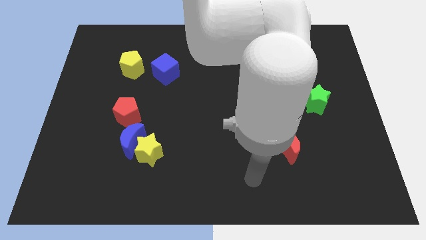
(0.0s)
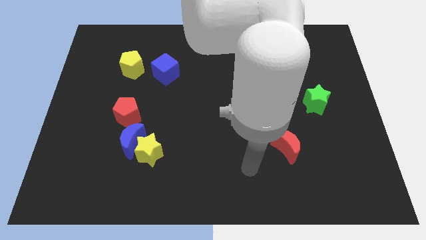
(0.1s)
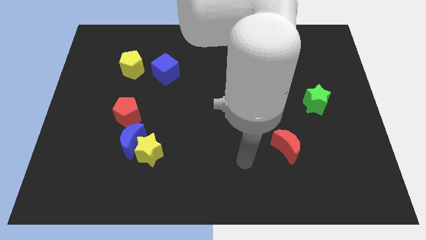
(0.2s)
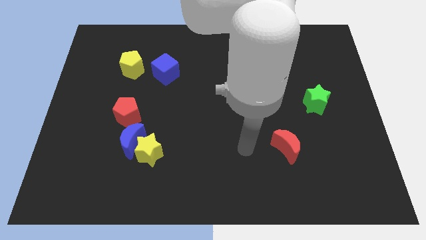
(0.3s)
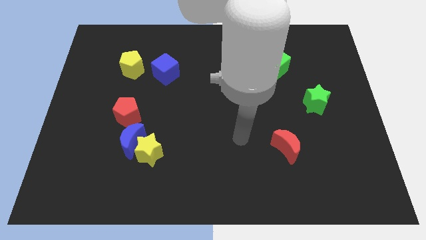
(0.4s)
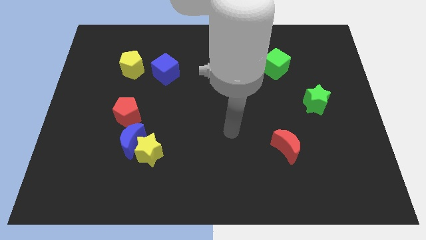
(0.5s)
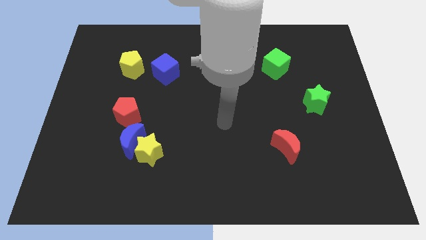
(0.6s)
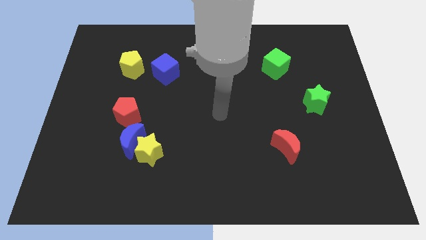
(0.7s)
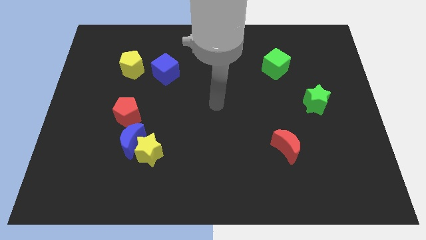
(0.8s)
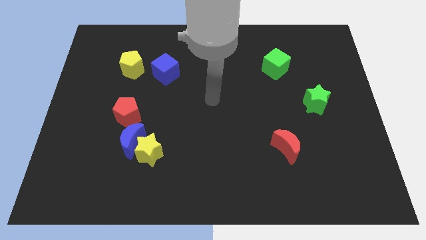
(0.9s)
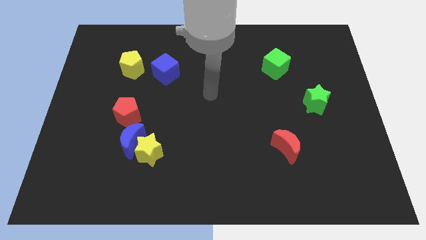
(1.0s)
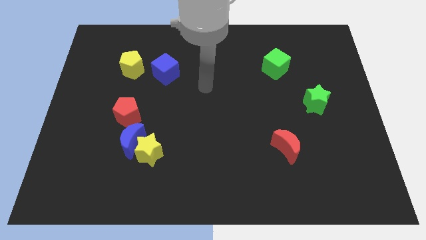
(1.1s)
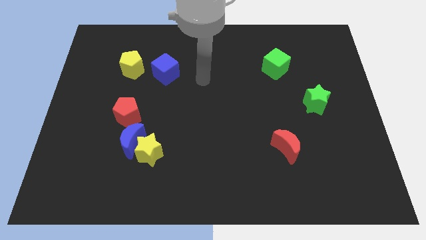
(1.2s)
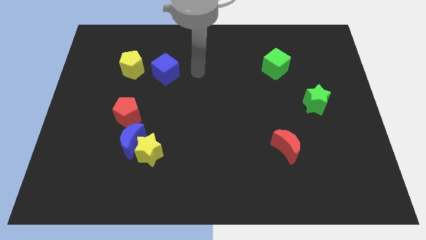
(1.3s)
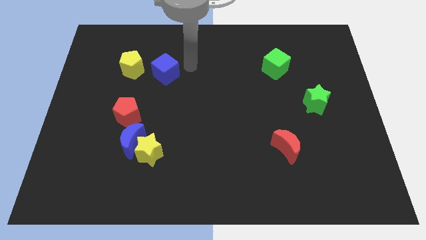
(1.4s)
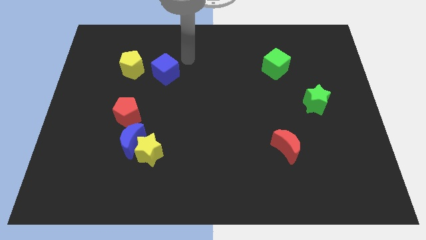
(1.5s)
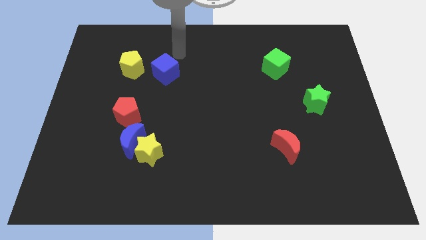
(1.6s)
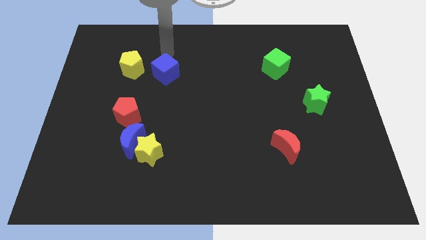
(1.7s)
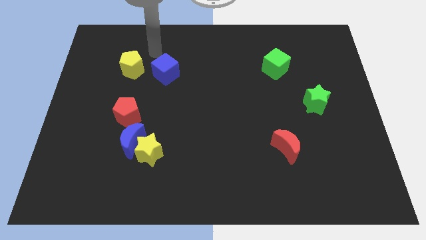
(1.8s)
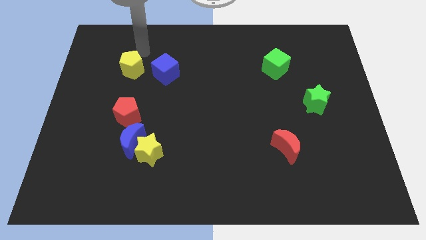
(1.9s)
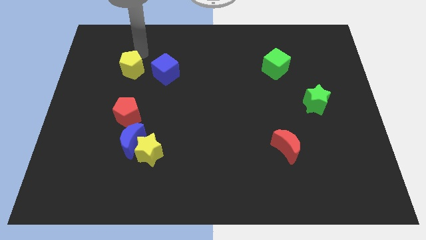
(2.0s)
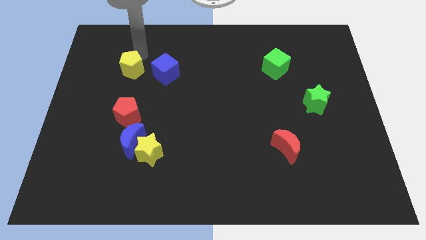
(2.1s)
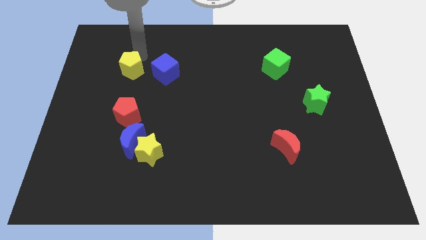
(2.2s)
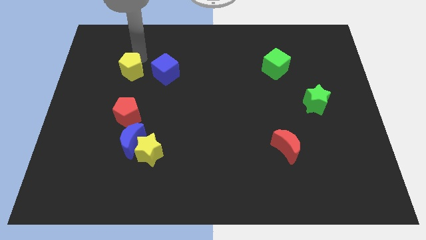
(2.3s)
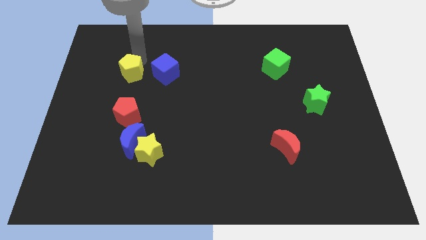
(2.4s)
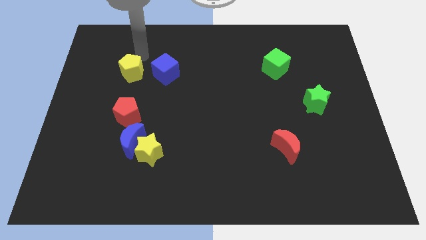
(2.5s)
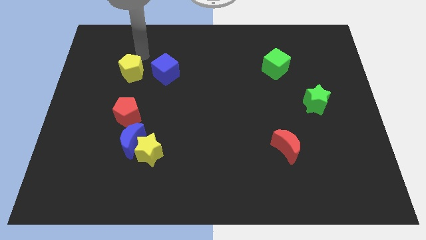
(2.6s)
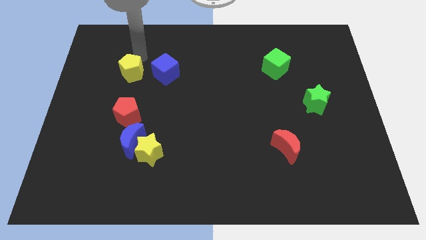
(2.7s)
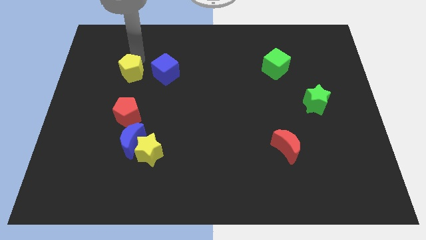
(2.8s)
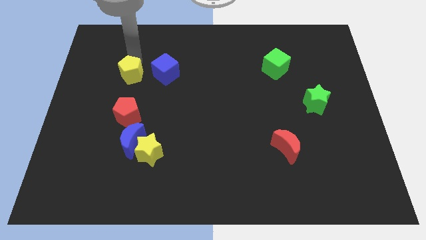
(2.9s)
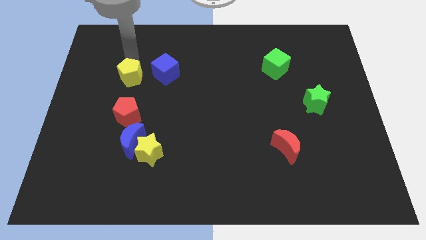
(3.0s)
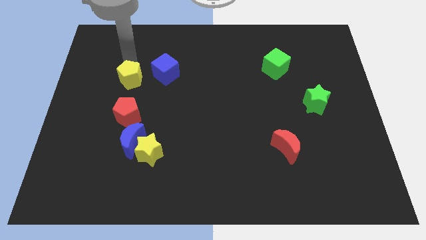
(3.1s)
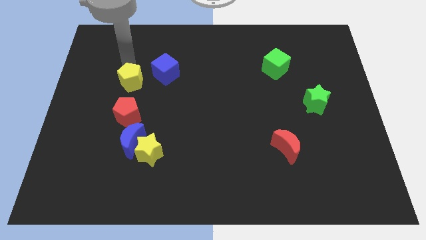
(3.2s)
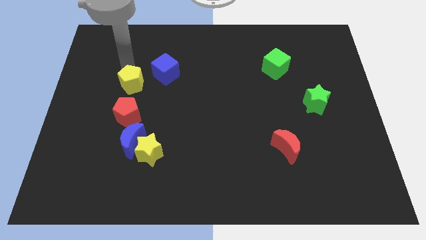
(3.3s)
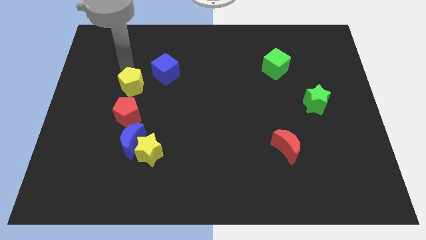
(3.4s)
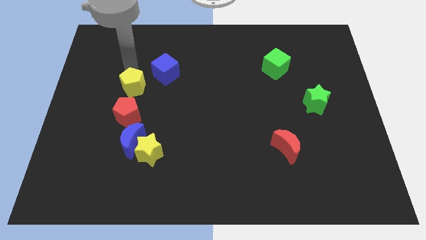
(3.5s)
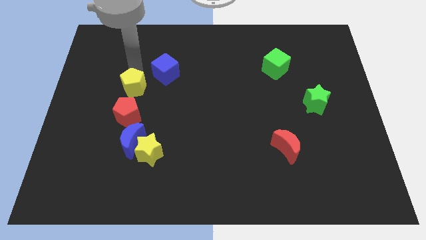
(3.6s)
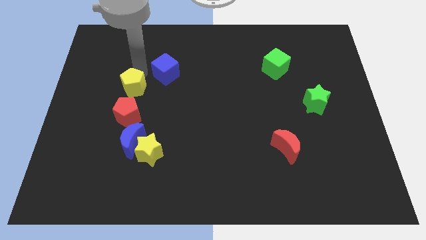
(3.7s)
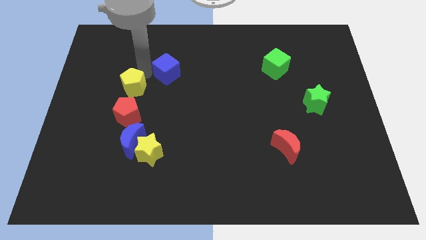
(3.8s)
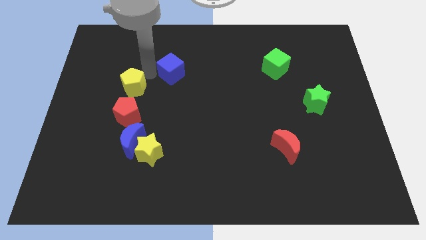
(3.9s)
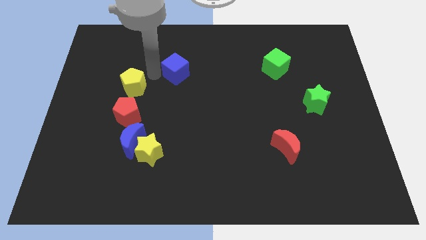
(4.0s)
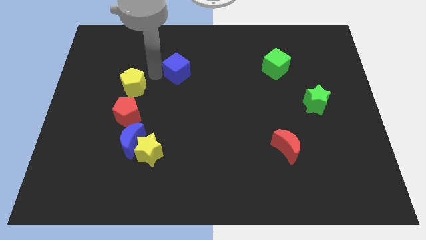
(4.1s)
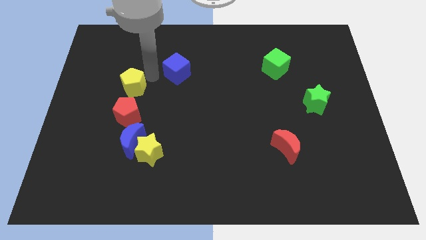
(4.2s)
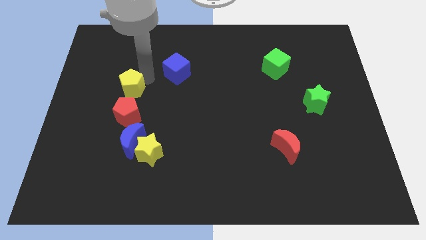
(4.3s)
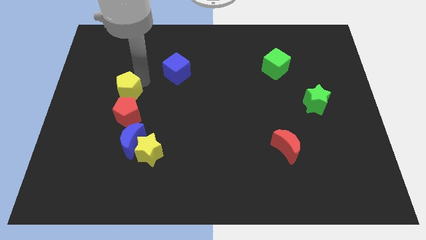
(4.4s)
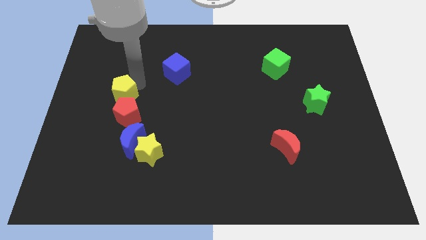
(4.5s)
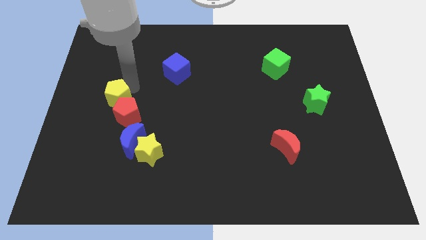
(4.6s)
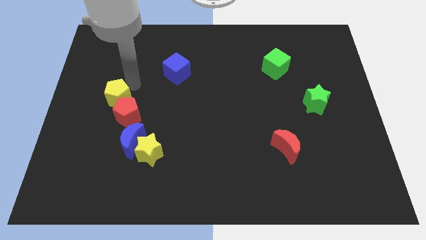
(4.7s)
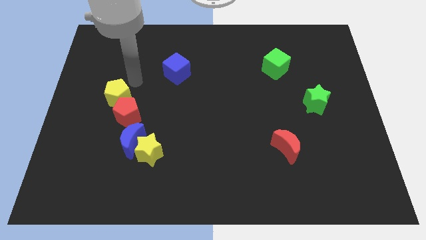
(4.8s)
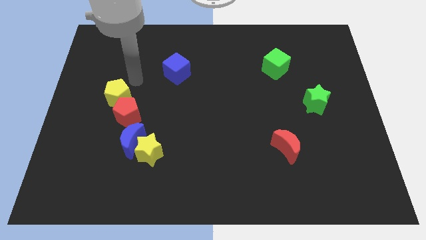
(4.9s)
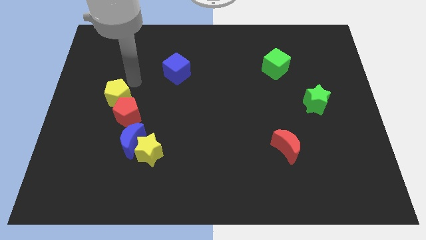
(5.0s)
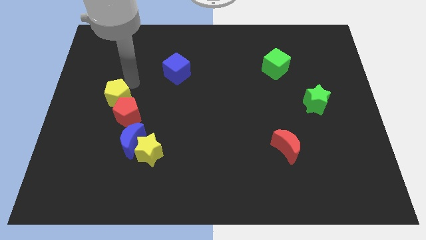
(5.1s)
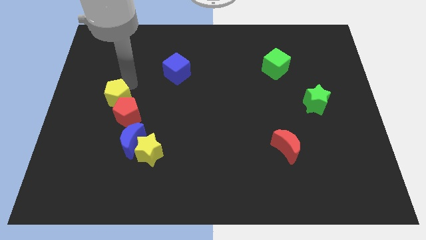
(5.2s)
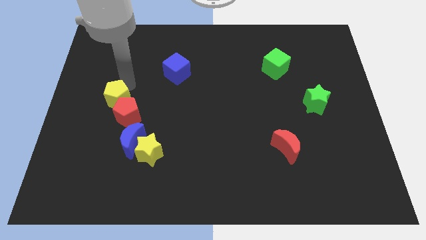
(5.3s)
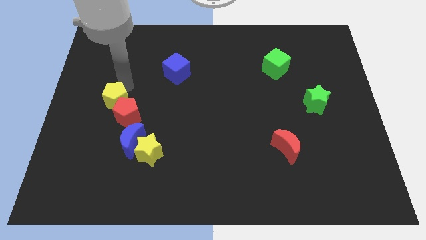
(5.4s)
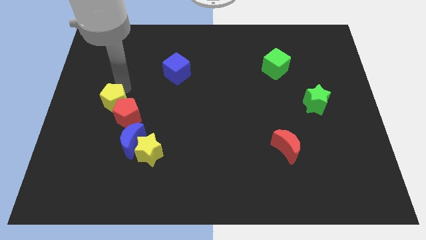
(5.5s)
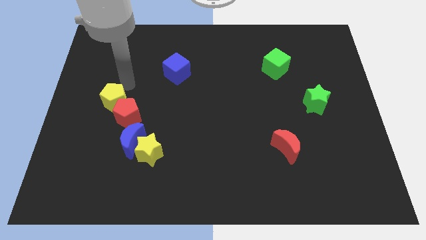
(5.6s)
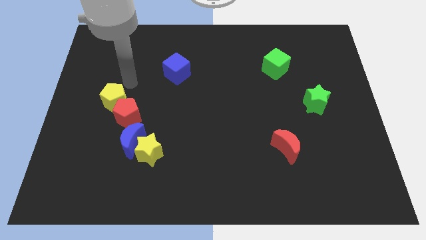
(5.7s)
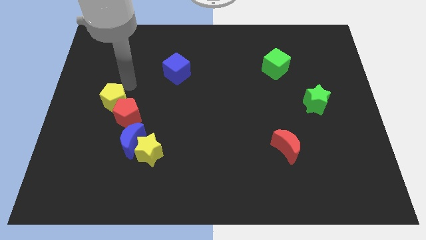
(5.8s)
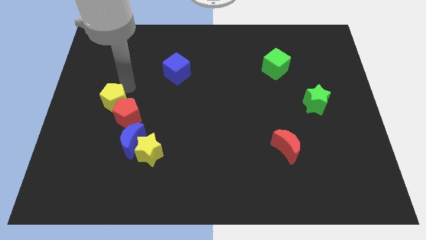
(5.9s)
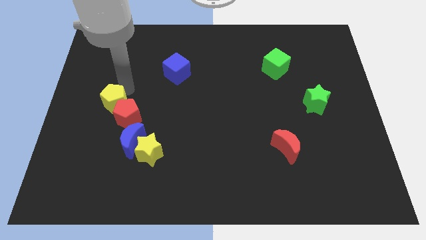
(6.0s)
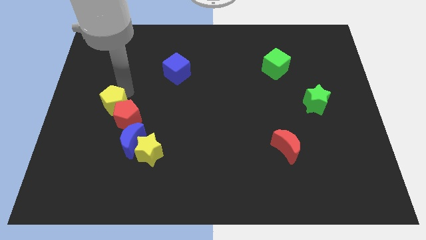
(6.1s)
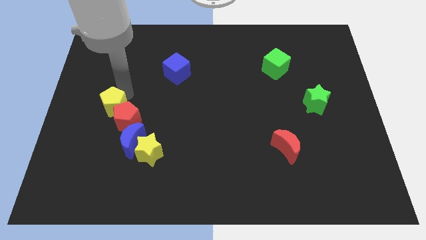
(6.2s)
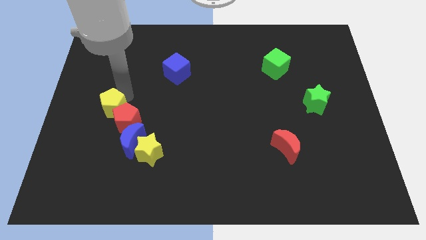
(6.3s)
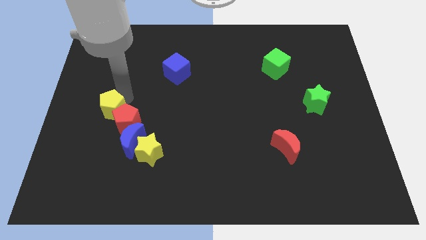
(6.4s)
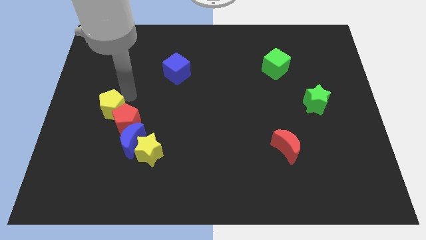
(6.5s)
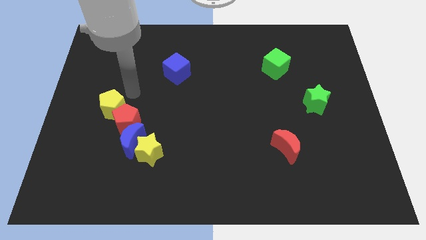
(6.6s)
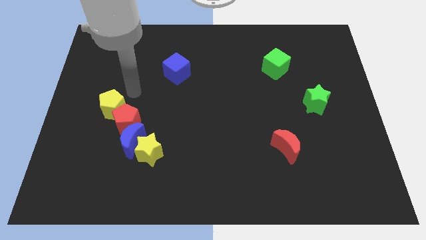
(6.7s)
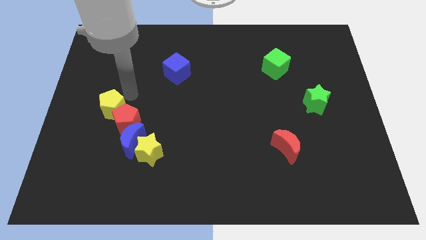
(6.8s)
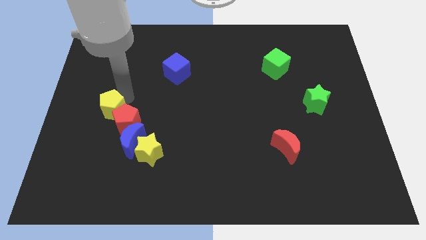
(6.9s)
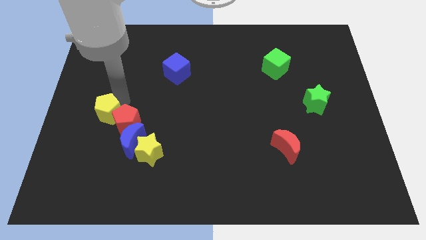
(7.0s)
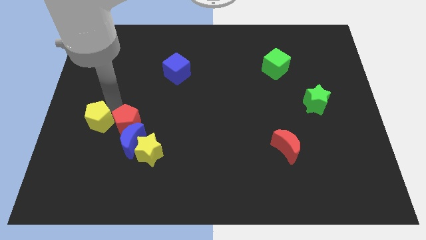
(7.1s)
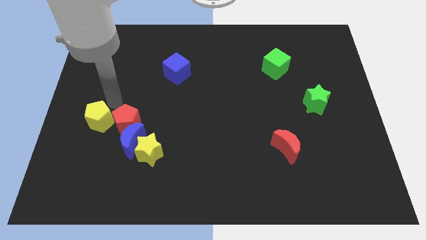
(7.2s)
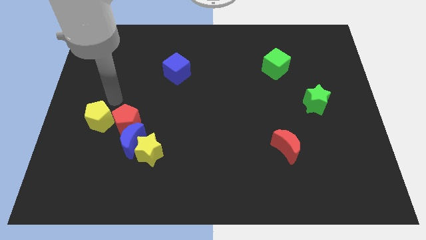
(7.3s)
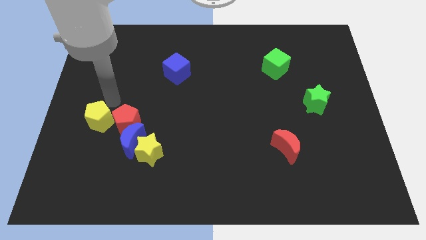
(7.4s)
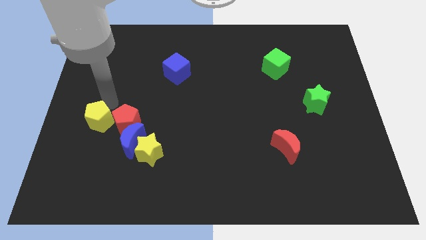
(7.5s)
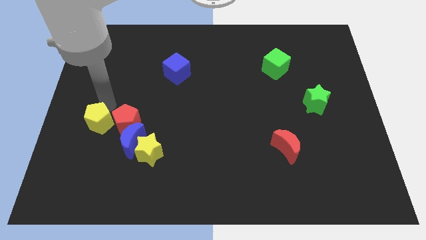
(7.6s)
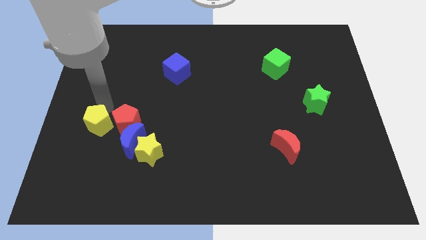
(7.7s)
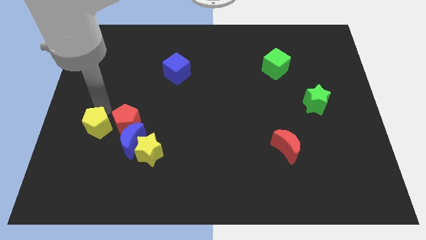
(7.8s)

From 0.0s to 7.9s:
push the yellow pentagon to the left side of the blue moon
